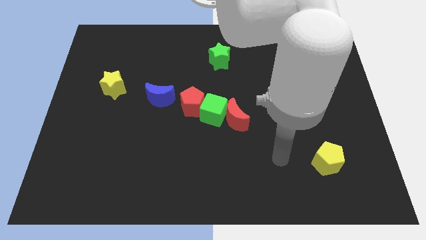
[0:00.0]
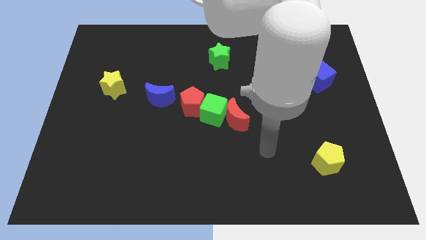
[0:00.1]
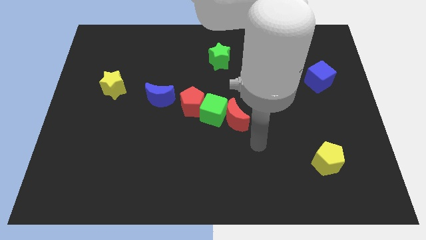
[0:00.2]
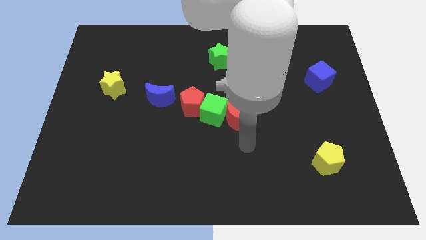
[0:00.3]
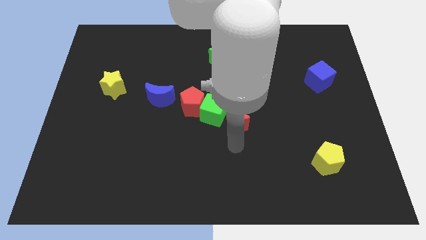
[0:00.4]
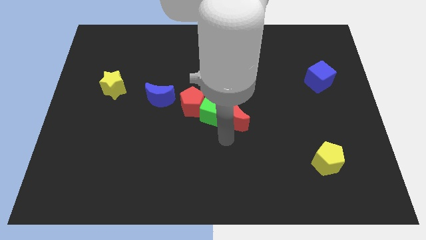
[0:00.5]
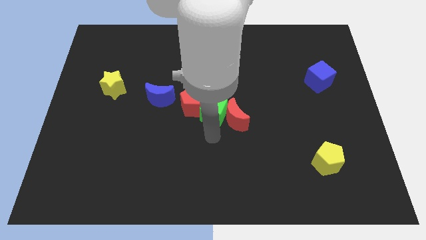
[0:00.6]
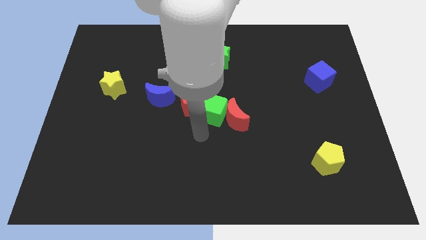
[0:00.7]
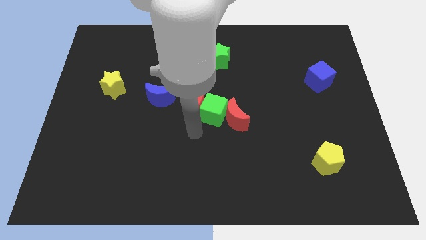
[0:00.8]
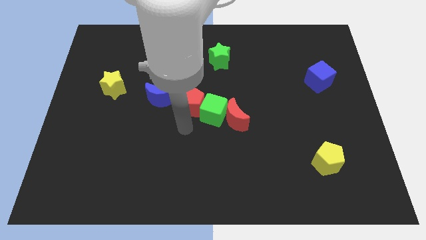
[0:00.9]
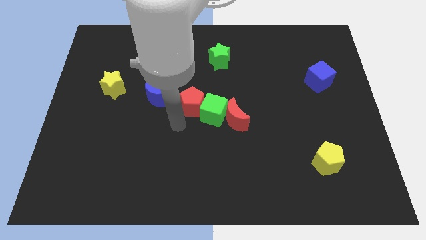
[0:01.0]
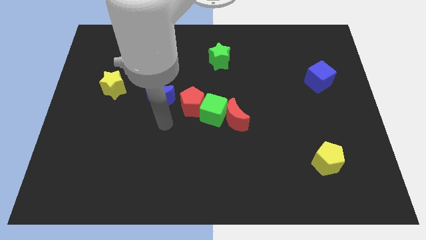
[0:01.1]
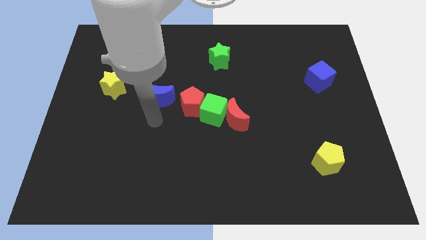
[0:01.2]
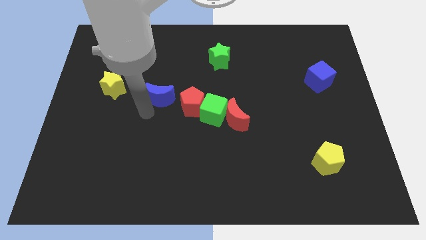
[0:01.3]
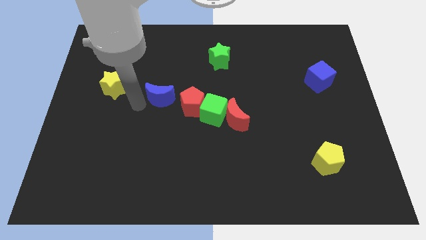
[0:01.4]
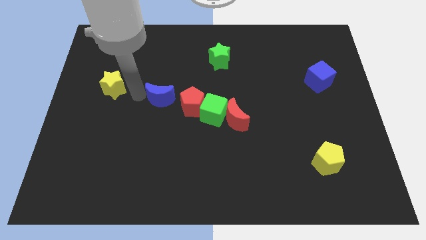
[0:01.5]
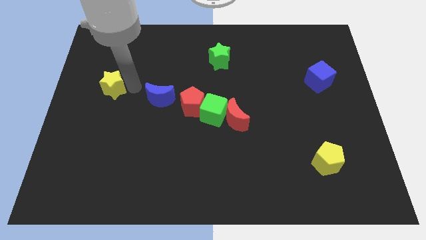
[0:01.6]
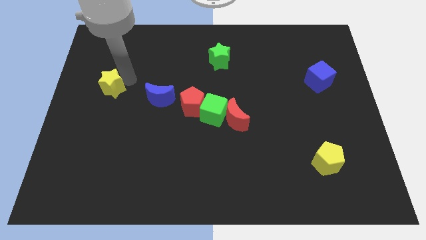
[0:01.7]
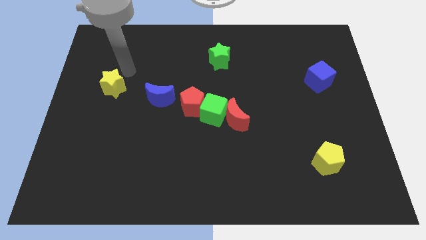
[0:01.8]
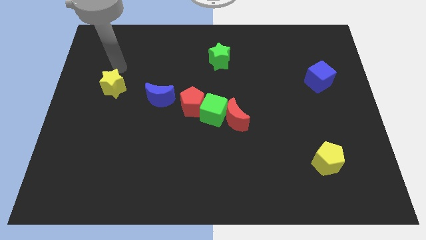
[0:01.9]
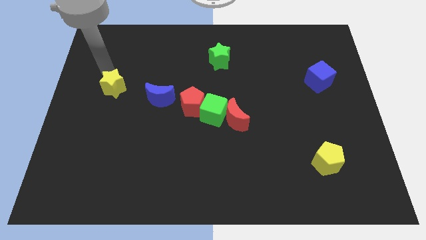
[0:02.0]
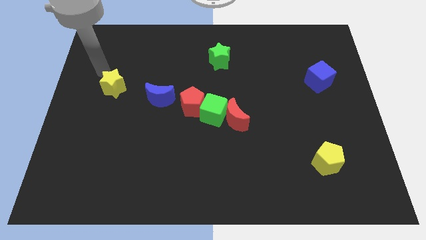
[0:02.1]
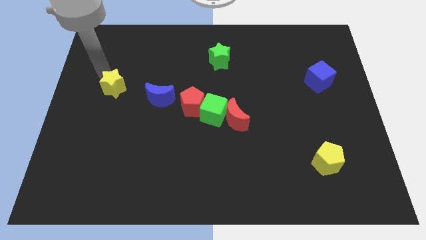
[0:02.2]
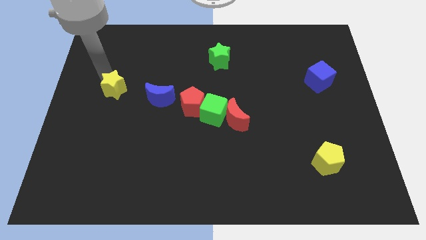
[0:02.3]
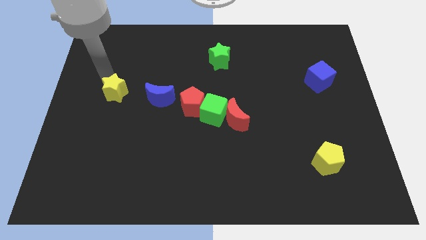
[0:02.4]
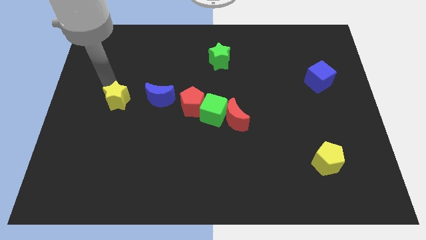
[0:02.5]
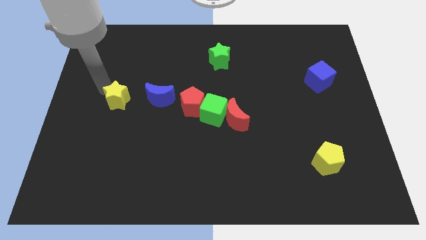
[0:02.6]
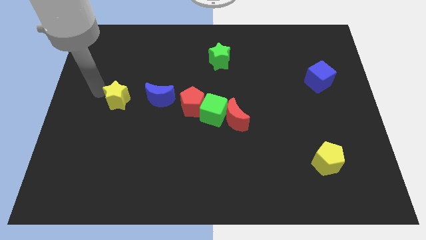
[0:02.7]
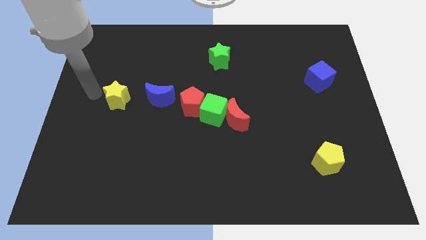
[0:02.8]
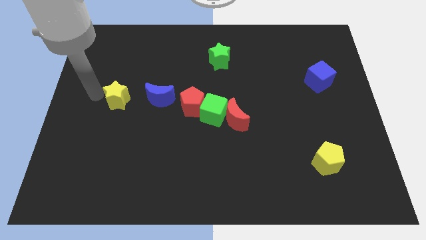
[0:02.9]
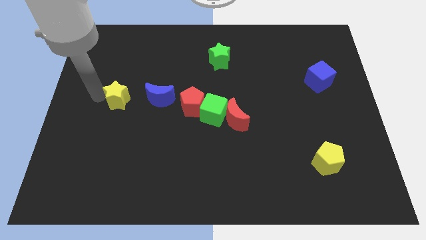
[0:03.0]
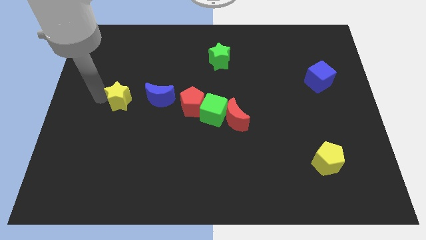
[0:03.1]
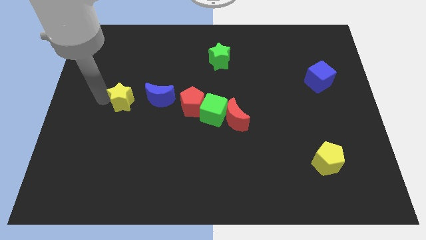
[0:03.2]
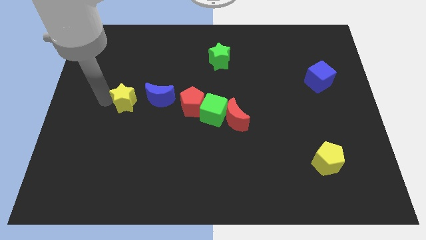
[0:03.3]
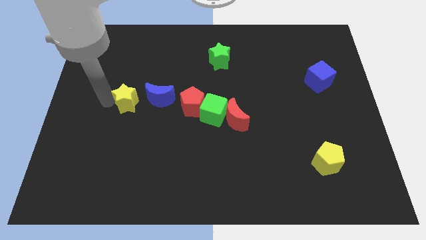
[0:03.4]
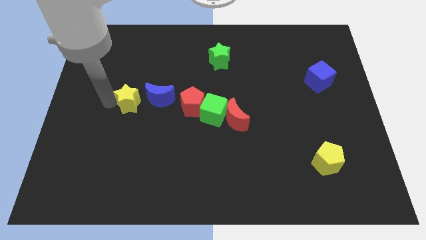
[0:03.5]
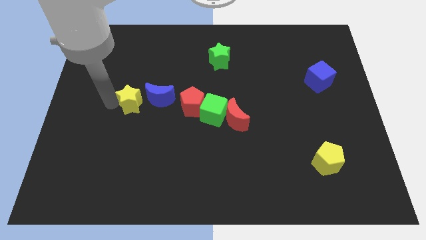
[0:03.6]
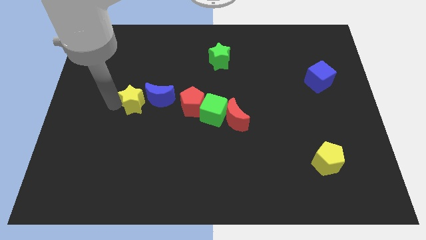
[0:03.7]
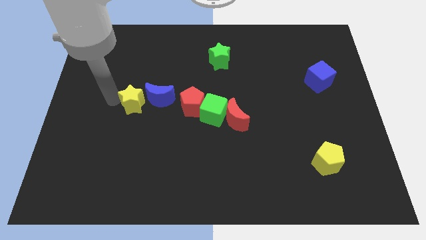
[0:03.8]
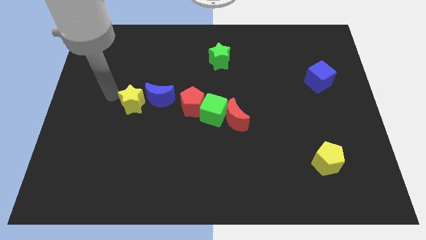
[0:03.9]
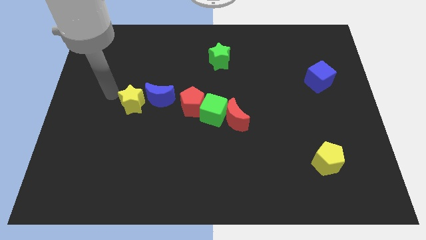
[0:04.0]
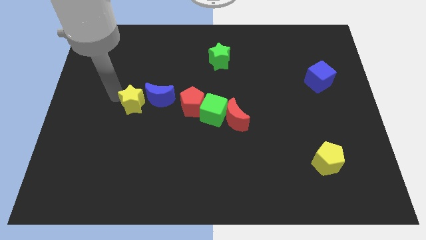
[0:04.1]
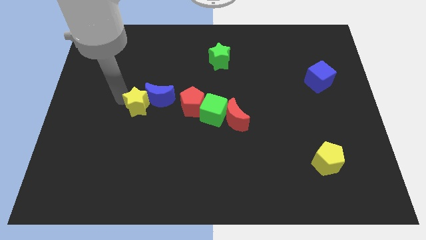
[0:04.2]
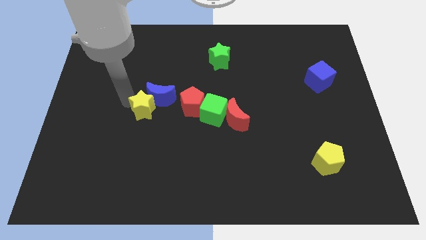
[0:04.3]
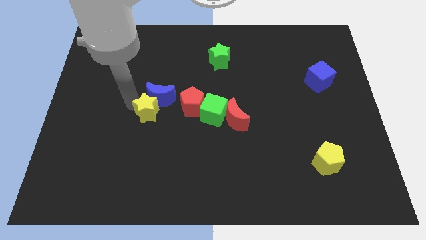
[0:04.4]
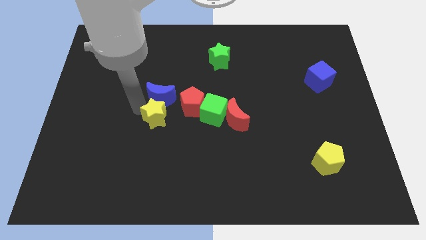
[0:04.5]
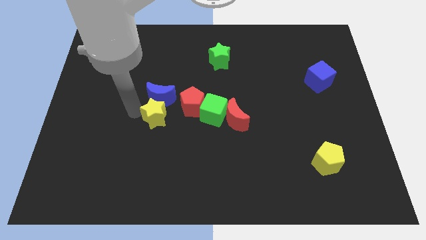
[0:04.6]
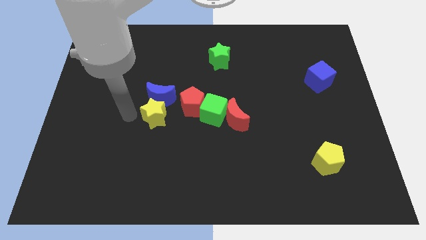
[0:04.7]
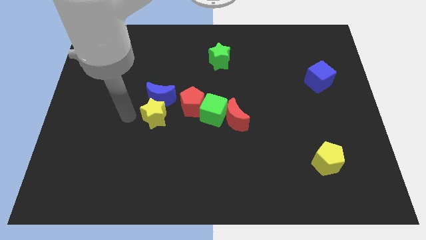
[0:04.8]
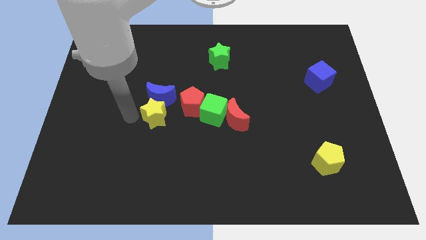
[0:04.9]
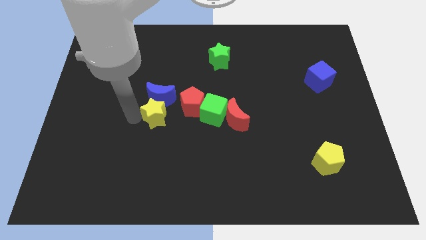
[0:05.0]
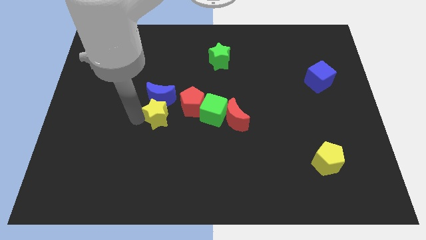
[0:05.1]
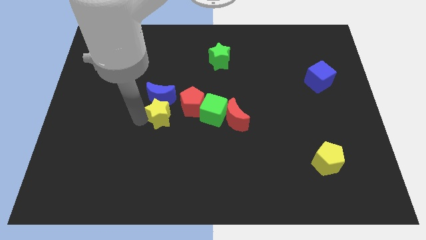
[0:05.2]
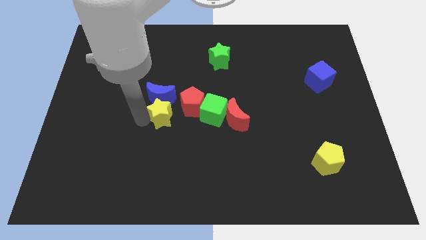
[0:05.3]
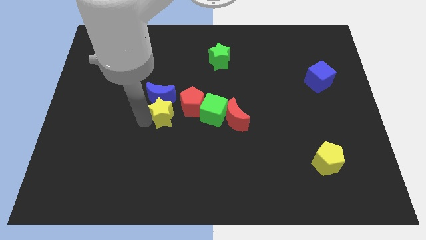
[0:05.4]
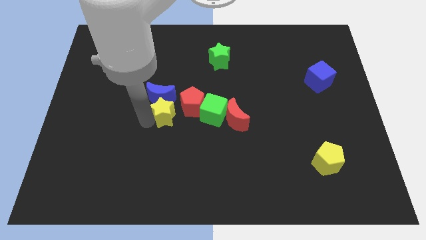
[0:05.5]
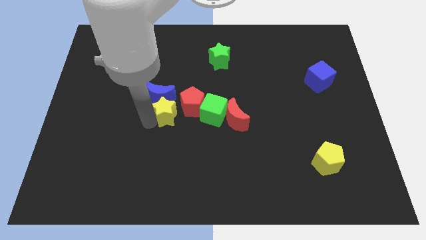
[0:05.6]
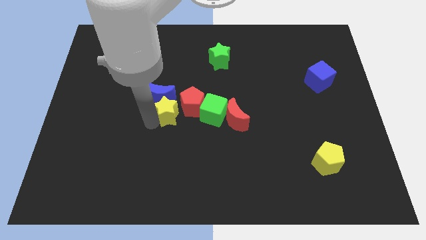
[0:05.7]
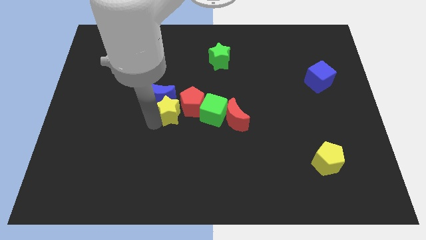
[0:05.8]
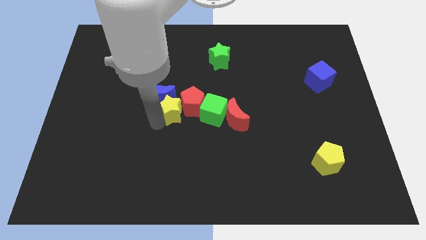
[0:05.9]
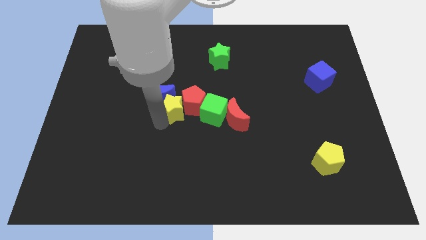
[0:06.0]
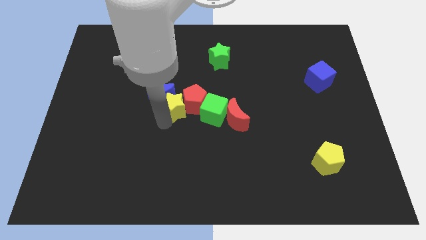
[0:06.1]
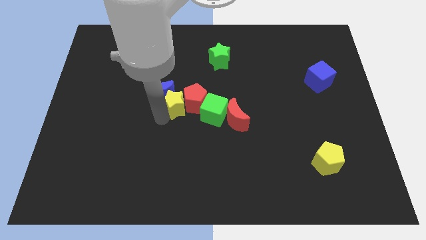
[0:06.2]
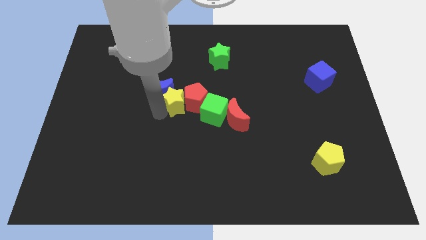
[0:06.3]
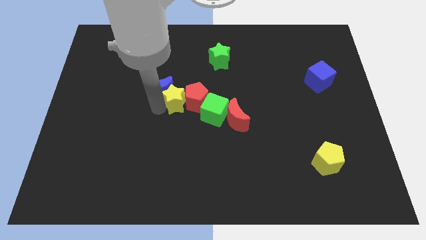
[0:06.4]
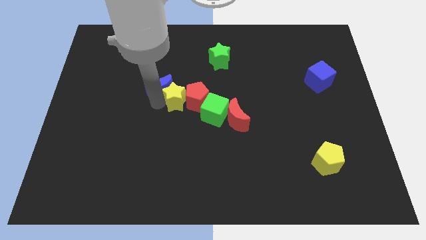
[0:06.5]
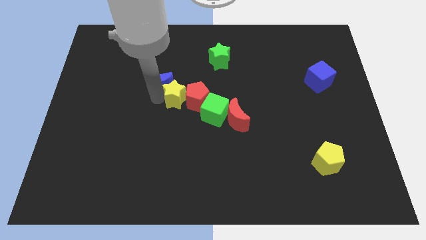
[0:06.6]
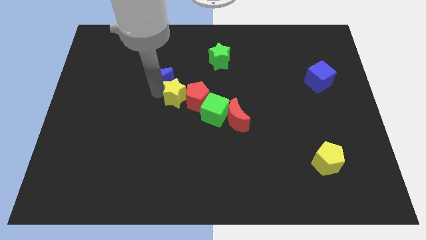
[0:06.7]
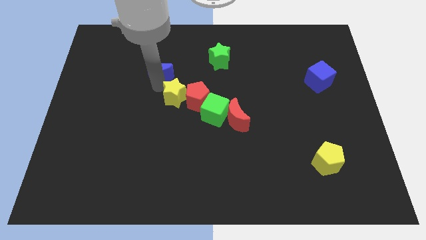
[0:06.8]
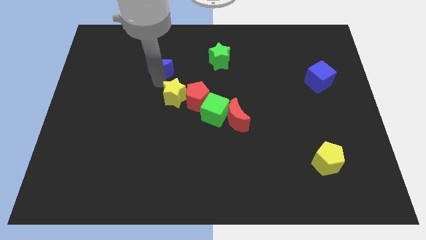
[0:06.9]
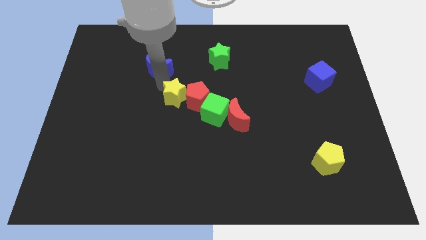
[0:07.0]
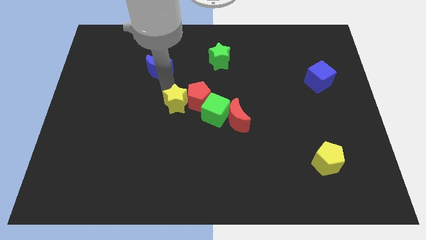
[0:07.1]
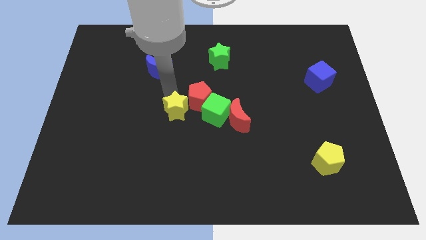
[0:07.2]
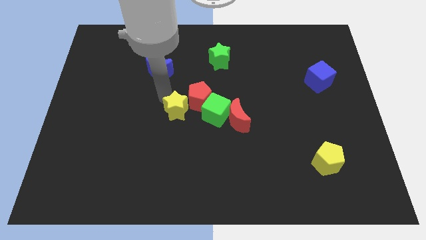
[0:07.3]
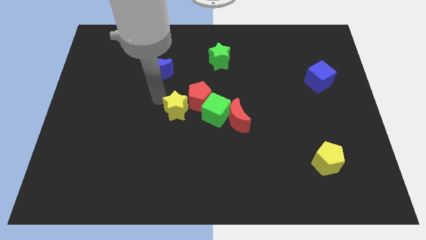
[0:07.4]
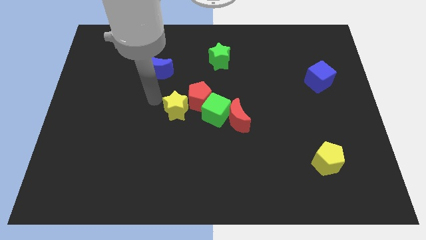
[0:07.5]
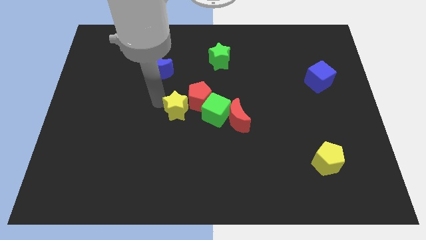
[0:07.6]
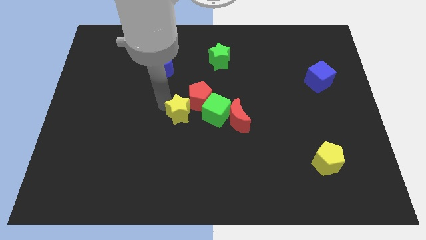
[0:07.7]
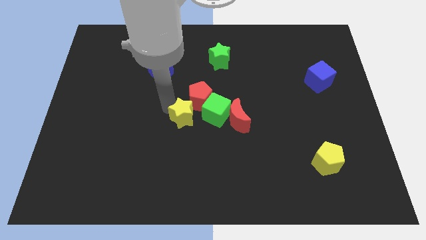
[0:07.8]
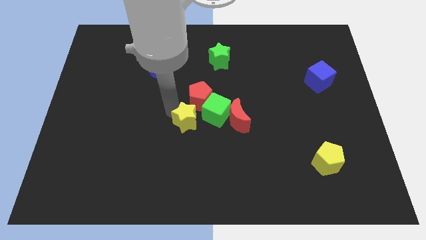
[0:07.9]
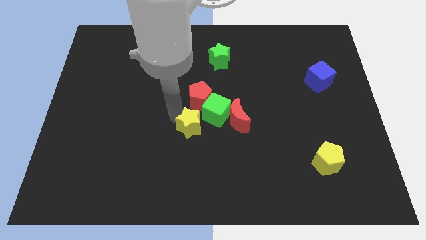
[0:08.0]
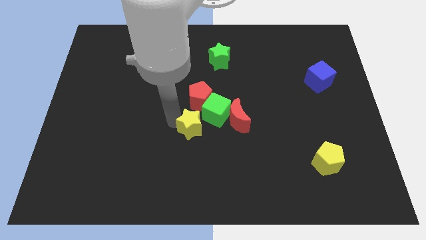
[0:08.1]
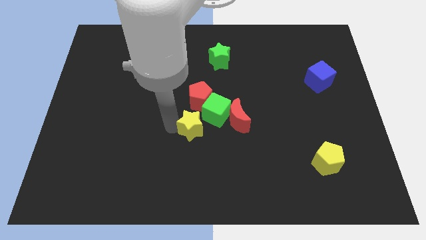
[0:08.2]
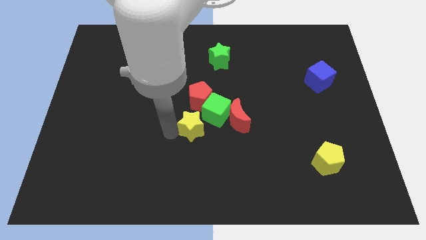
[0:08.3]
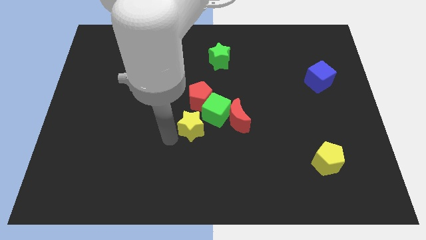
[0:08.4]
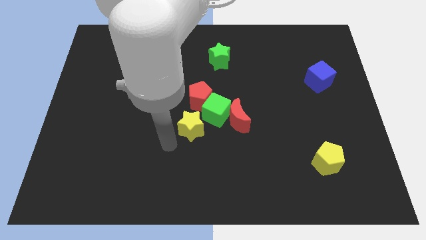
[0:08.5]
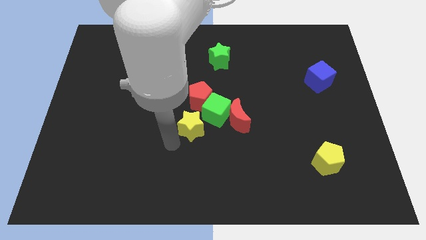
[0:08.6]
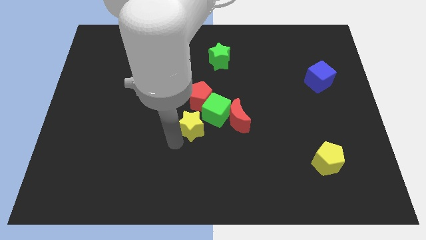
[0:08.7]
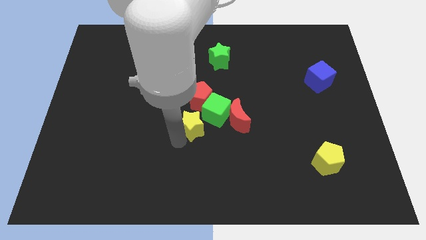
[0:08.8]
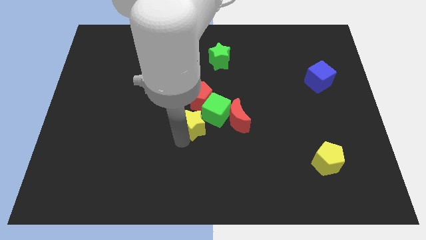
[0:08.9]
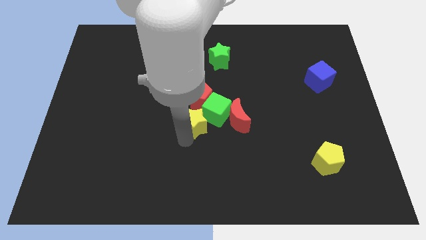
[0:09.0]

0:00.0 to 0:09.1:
move the yellow star towards the green cube
